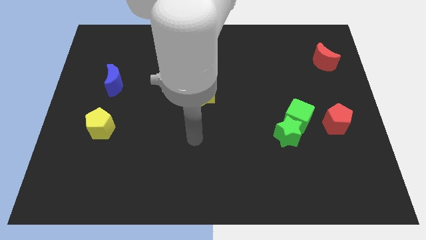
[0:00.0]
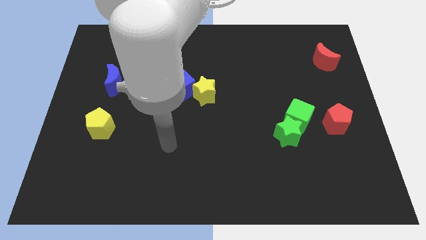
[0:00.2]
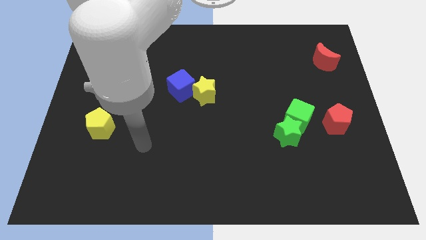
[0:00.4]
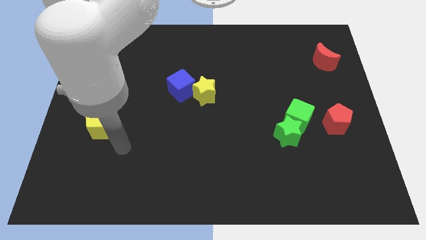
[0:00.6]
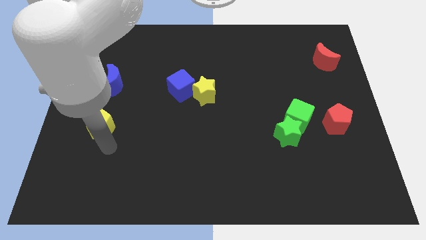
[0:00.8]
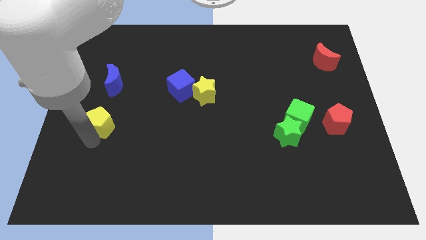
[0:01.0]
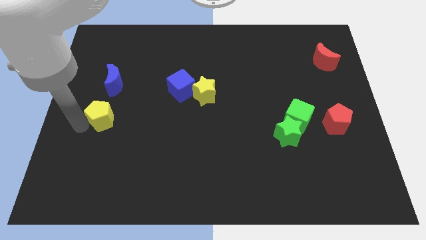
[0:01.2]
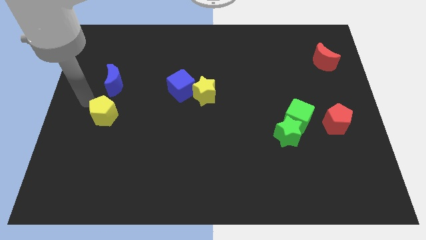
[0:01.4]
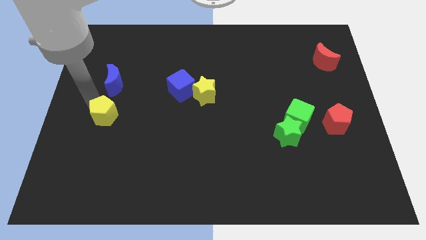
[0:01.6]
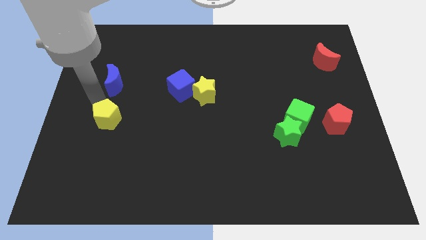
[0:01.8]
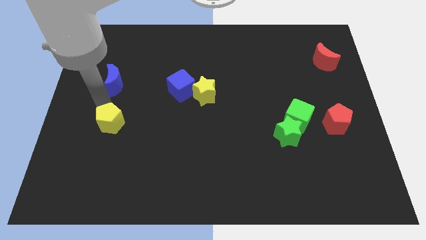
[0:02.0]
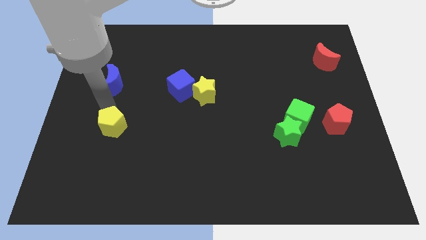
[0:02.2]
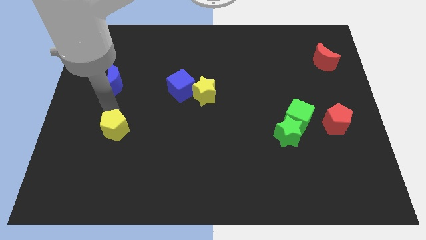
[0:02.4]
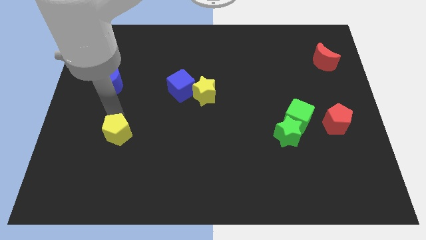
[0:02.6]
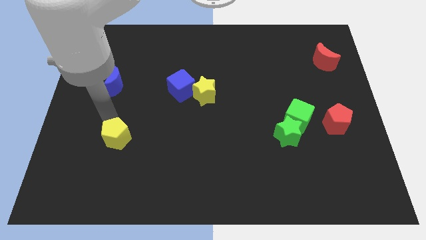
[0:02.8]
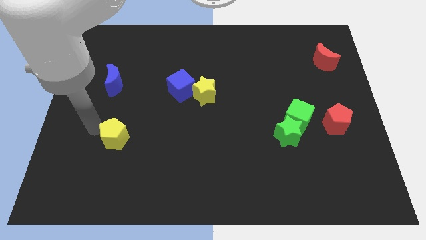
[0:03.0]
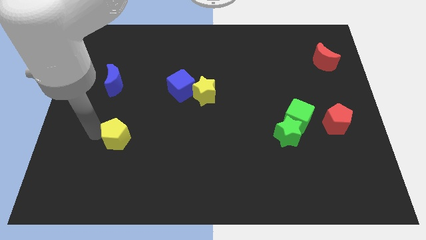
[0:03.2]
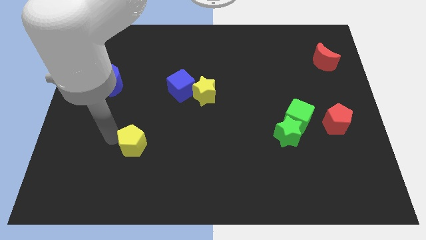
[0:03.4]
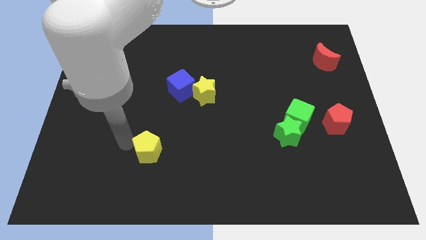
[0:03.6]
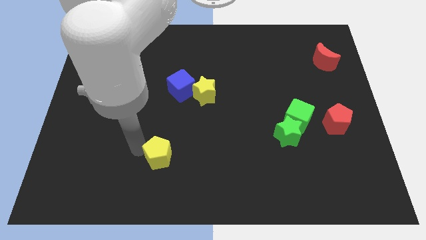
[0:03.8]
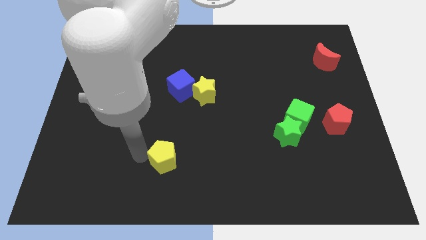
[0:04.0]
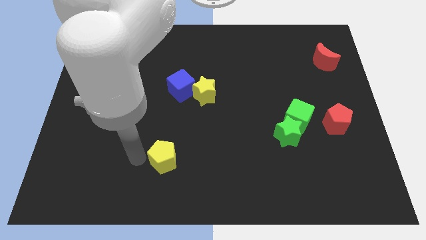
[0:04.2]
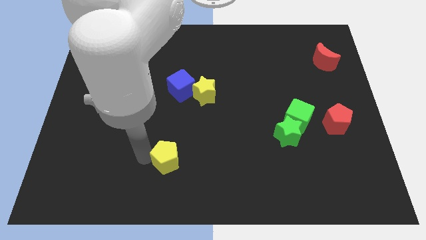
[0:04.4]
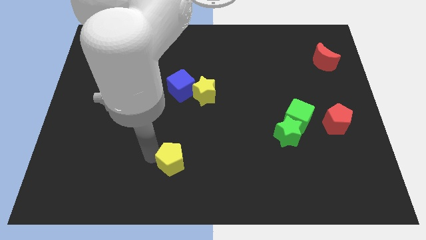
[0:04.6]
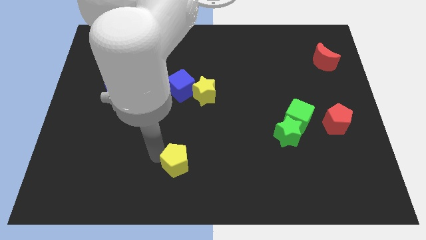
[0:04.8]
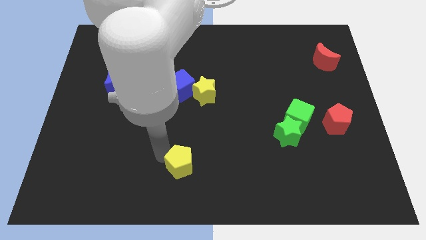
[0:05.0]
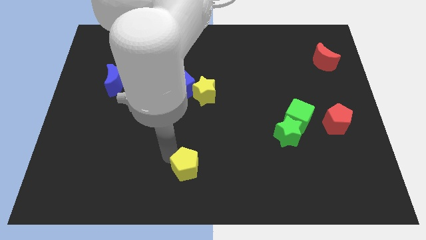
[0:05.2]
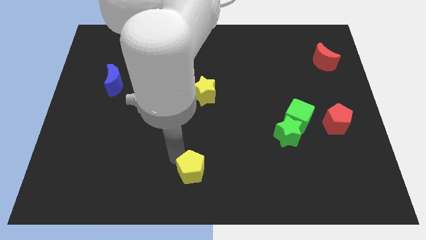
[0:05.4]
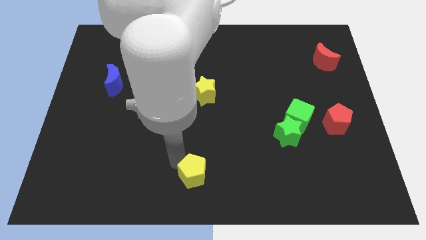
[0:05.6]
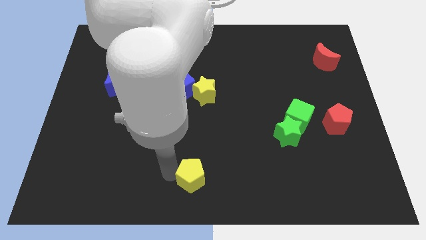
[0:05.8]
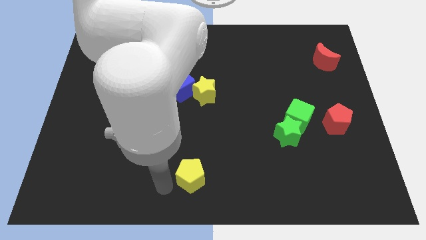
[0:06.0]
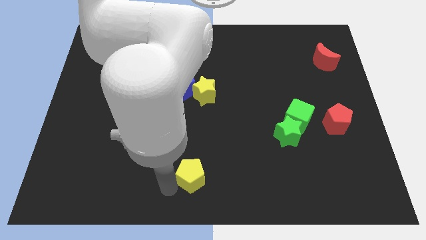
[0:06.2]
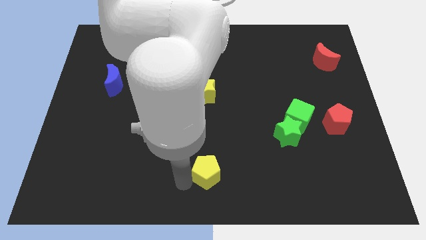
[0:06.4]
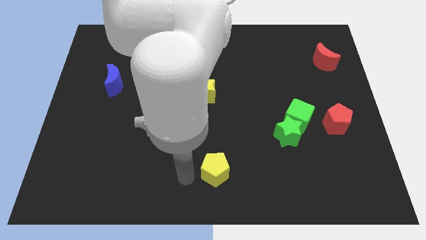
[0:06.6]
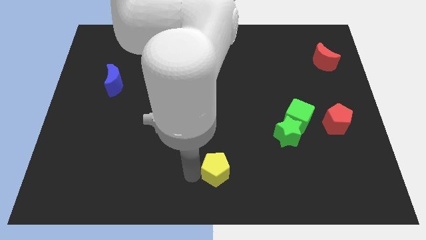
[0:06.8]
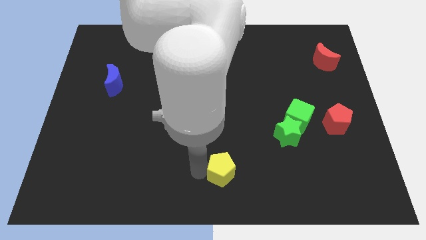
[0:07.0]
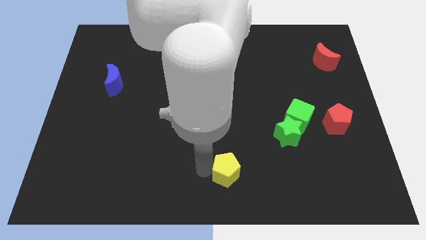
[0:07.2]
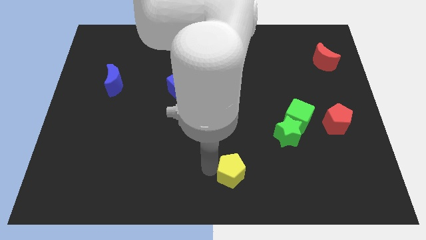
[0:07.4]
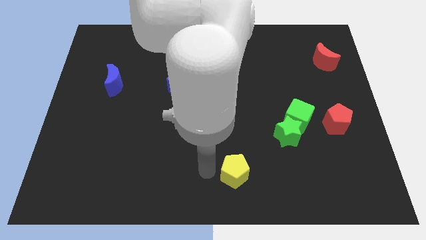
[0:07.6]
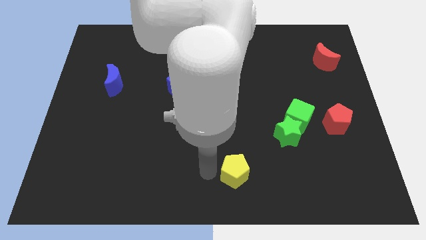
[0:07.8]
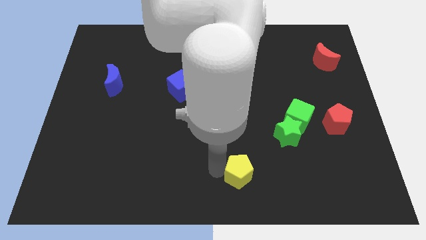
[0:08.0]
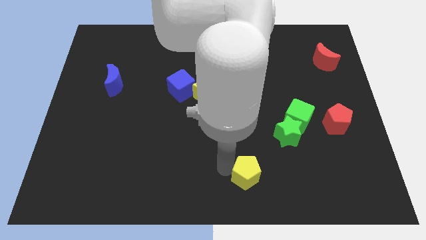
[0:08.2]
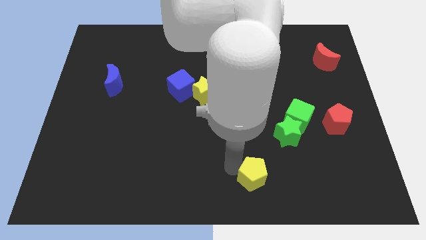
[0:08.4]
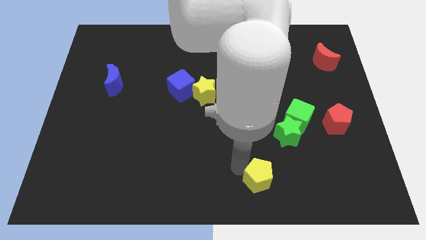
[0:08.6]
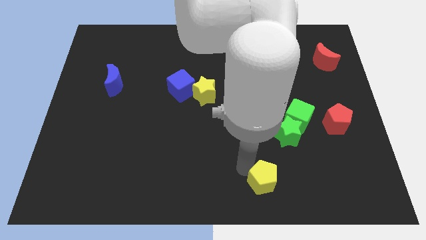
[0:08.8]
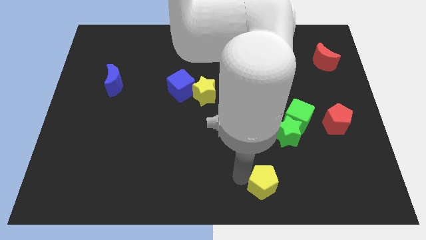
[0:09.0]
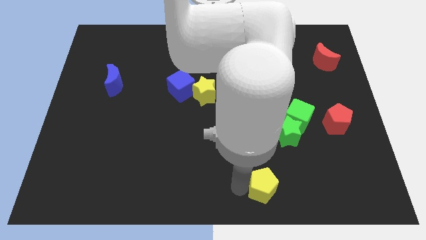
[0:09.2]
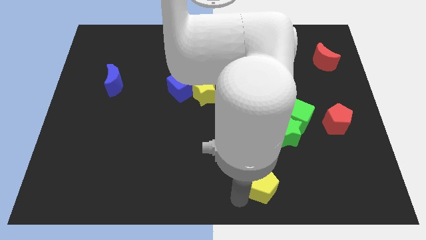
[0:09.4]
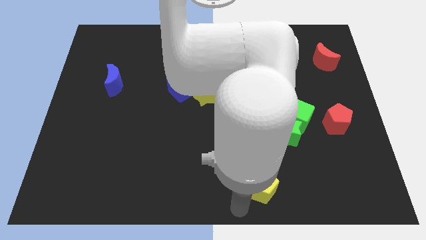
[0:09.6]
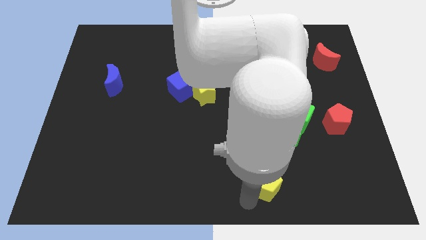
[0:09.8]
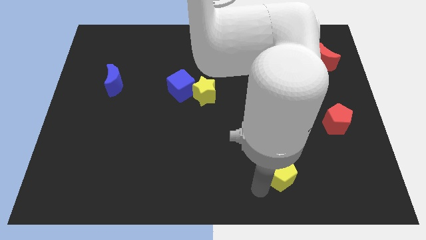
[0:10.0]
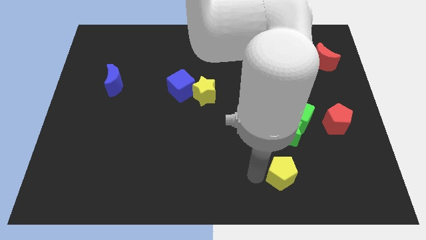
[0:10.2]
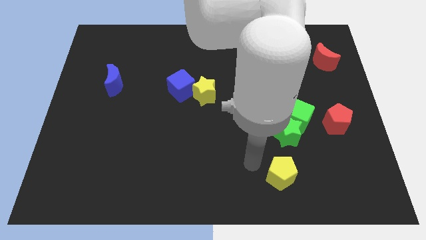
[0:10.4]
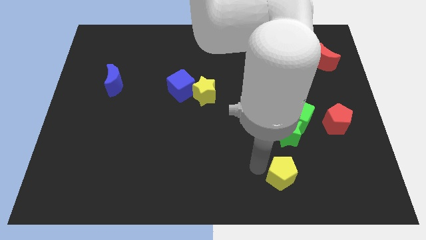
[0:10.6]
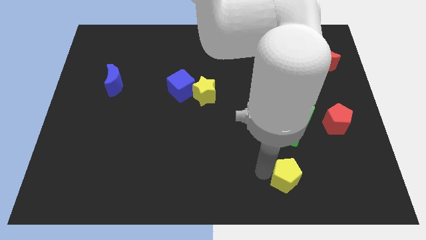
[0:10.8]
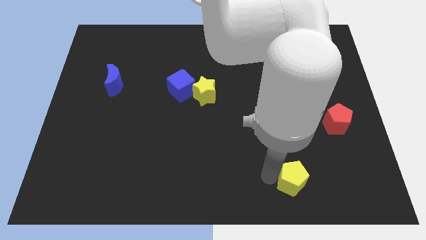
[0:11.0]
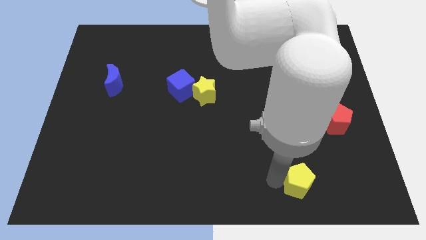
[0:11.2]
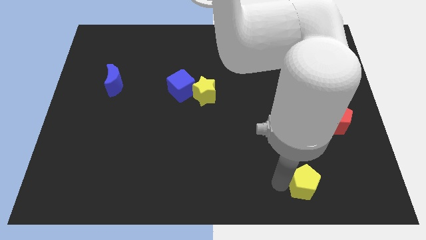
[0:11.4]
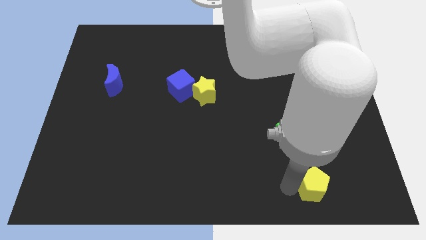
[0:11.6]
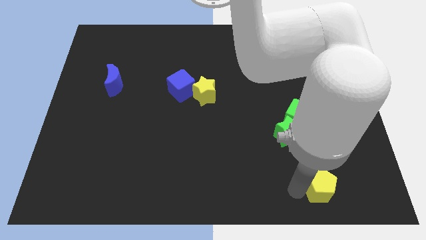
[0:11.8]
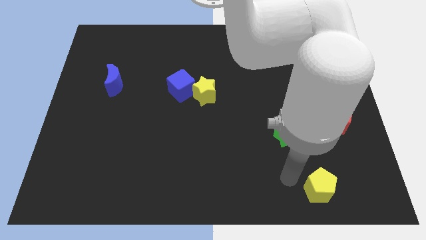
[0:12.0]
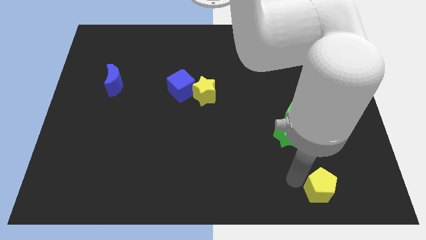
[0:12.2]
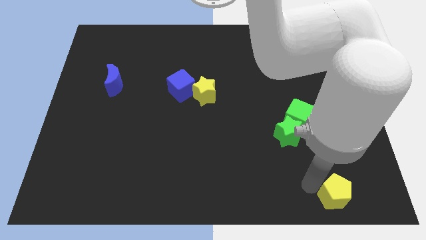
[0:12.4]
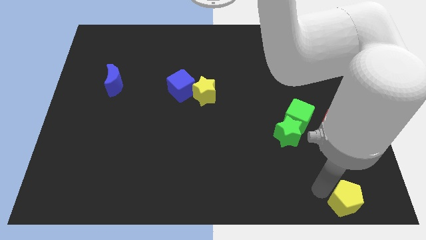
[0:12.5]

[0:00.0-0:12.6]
push the yellow pentagon to the bottom right corner
